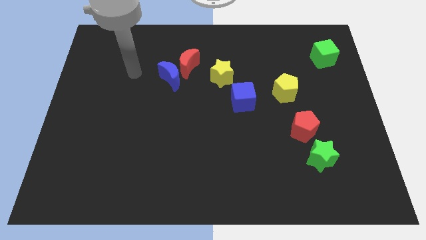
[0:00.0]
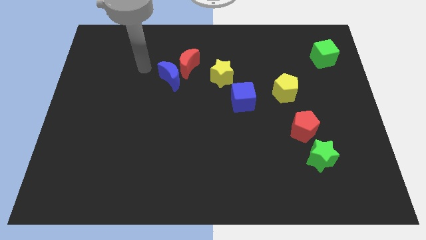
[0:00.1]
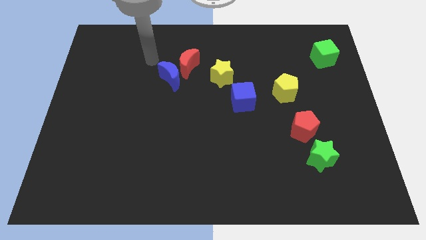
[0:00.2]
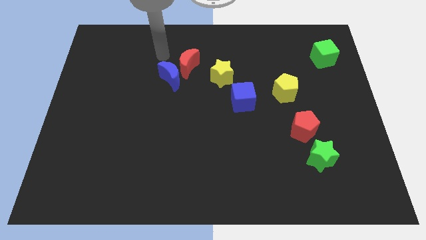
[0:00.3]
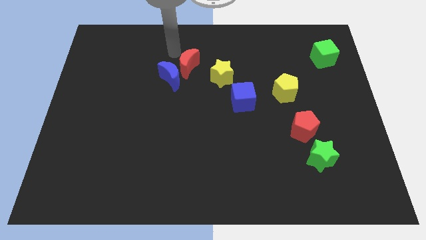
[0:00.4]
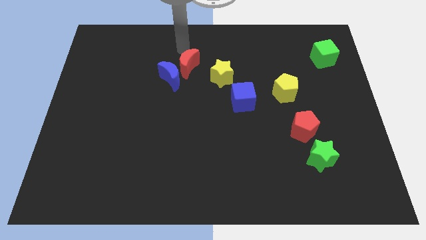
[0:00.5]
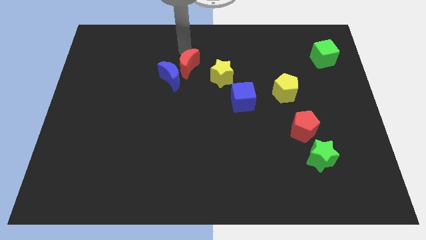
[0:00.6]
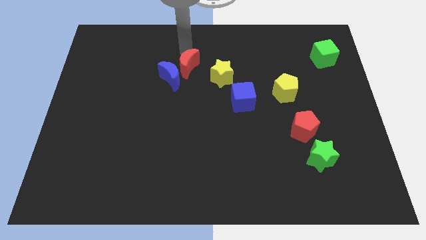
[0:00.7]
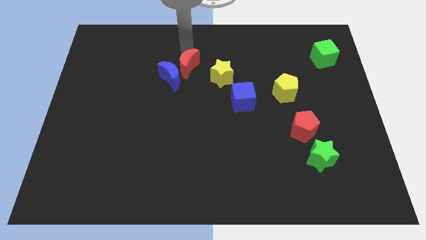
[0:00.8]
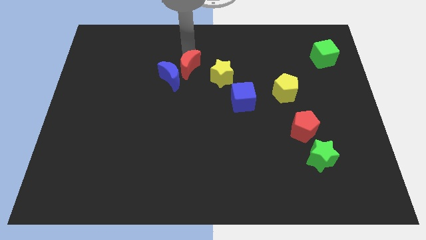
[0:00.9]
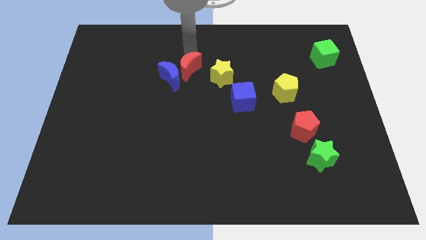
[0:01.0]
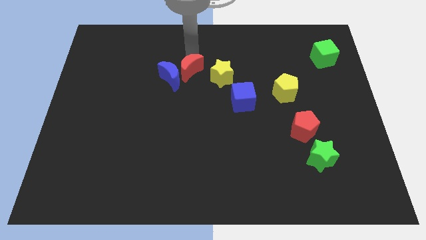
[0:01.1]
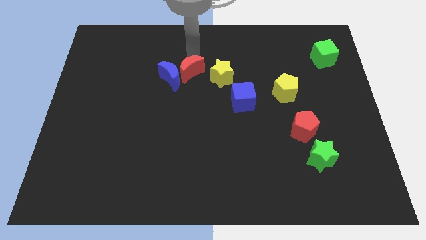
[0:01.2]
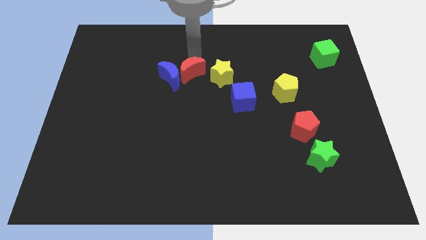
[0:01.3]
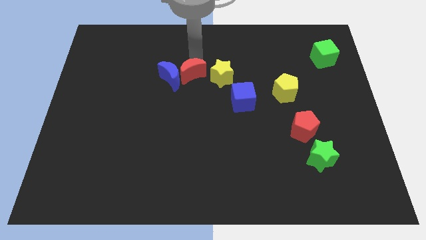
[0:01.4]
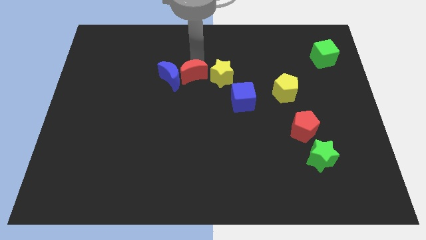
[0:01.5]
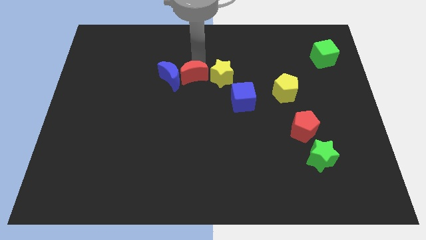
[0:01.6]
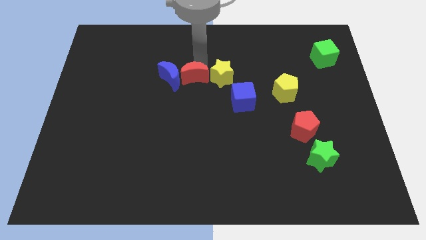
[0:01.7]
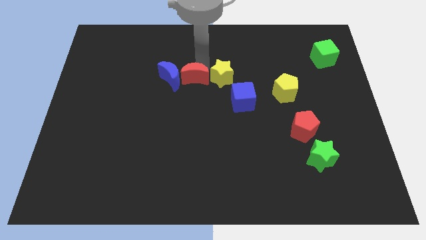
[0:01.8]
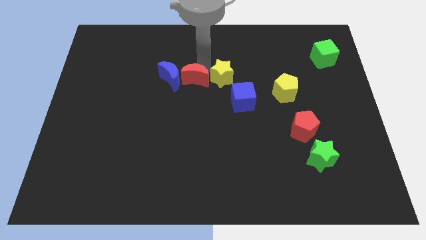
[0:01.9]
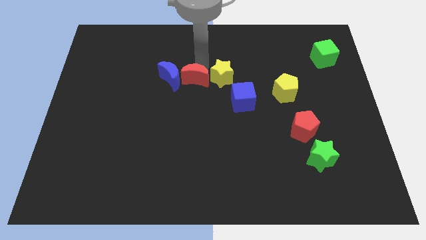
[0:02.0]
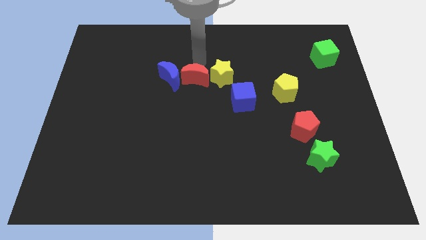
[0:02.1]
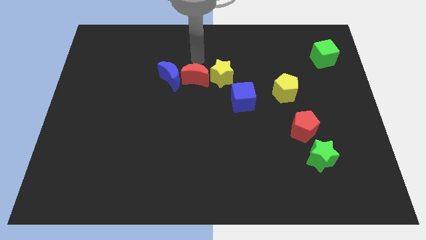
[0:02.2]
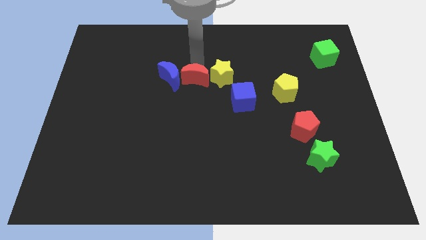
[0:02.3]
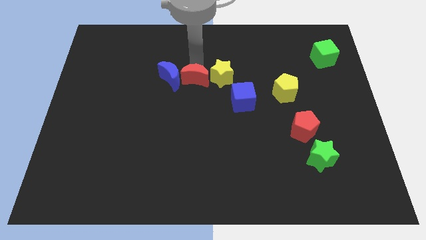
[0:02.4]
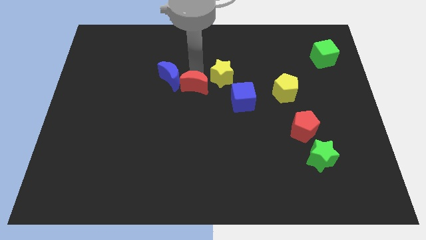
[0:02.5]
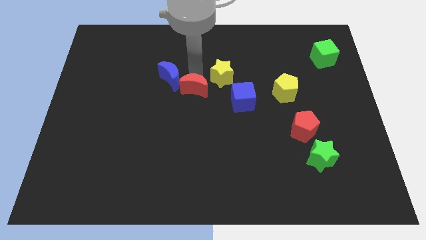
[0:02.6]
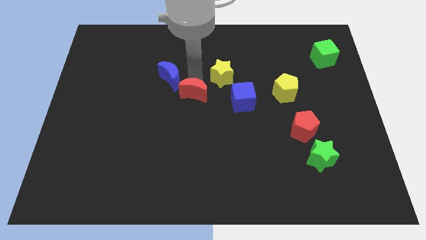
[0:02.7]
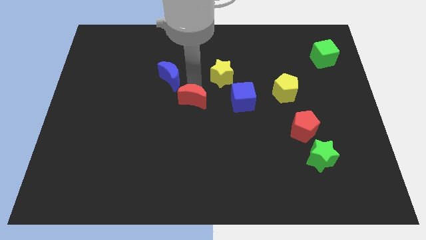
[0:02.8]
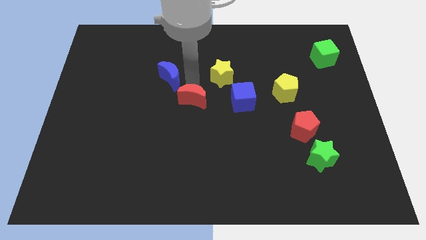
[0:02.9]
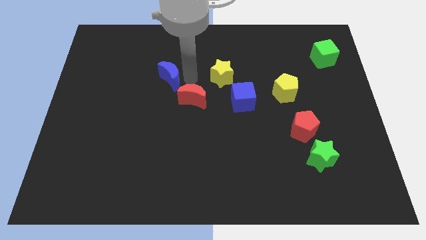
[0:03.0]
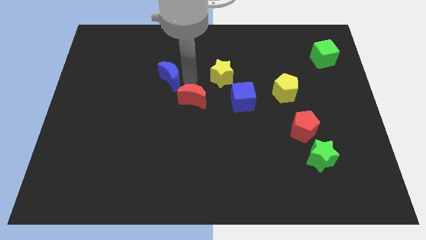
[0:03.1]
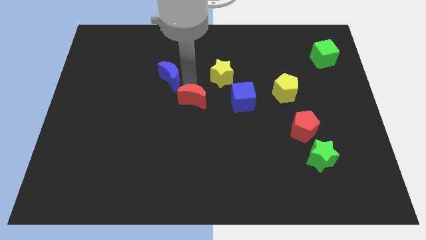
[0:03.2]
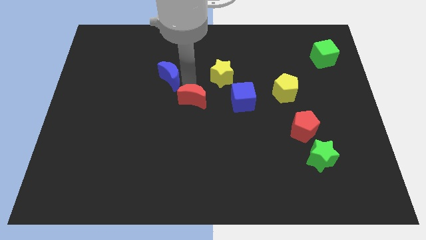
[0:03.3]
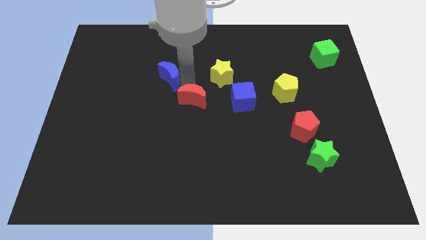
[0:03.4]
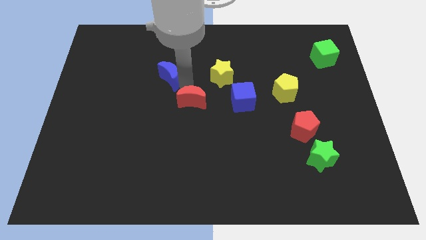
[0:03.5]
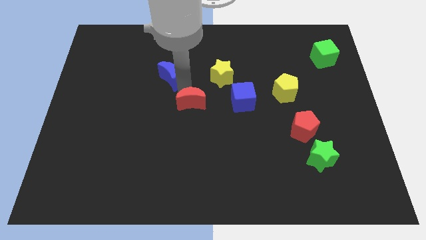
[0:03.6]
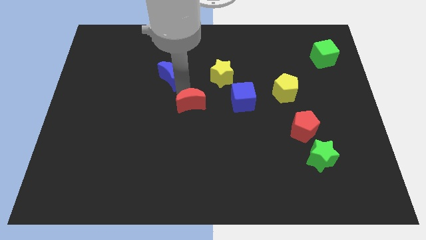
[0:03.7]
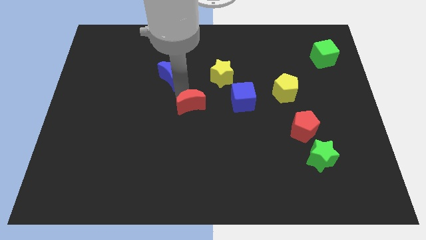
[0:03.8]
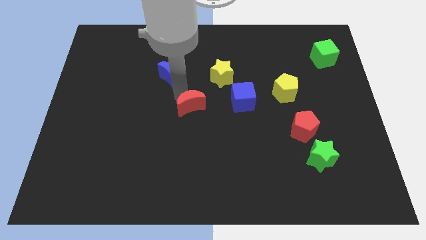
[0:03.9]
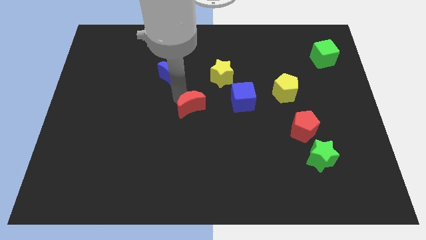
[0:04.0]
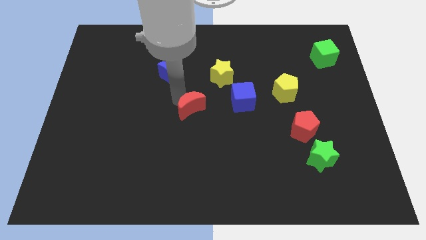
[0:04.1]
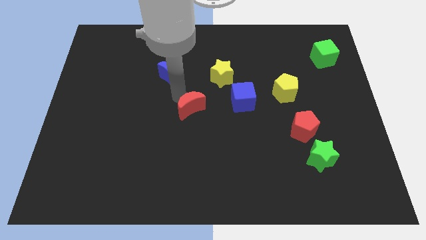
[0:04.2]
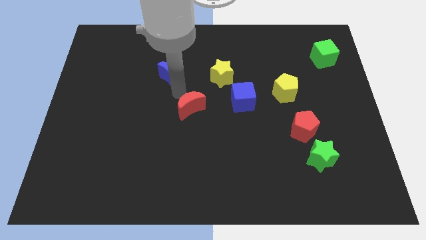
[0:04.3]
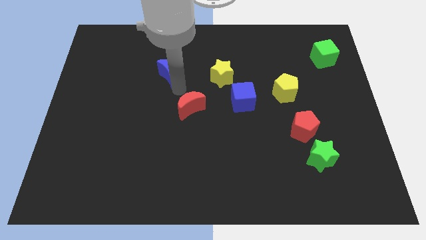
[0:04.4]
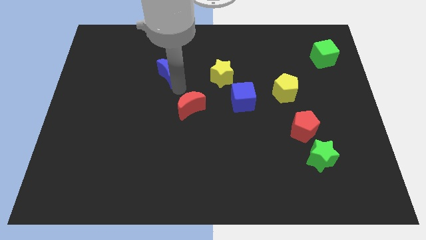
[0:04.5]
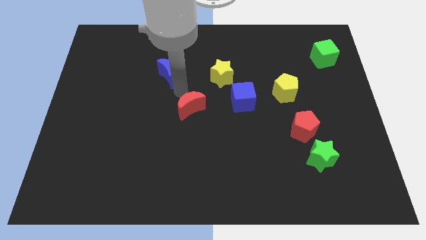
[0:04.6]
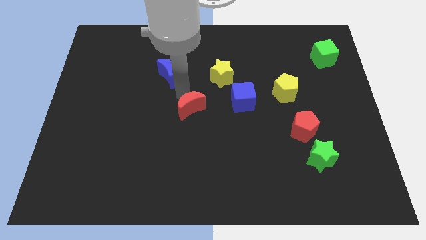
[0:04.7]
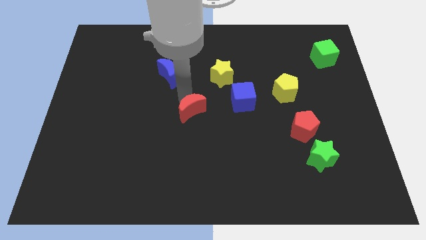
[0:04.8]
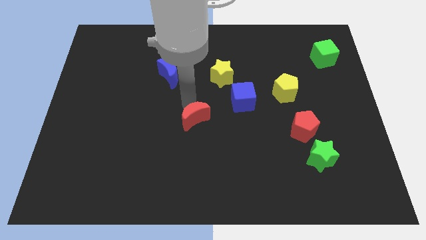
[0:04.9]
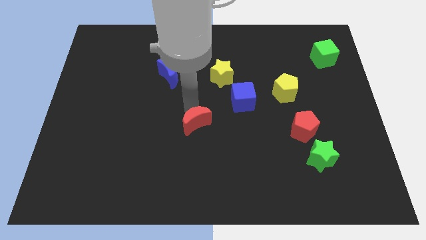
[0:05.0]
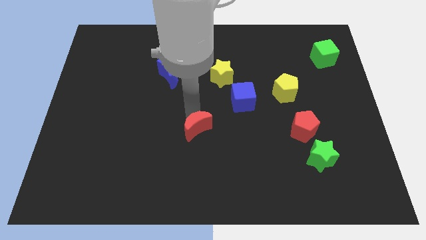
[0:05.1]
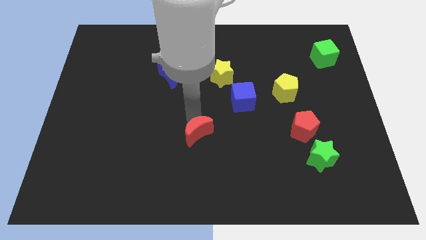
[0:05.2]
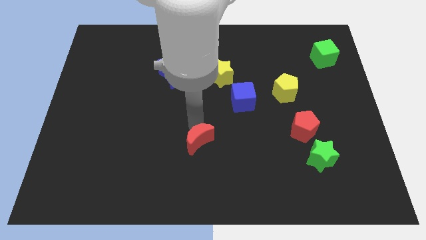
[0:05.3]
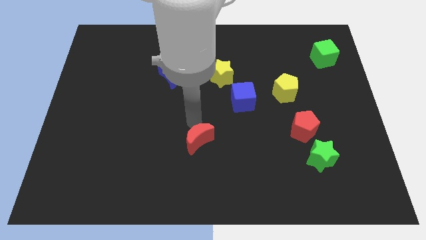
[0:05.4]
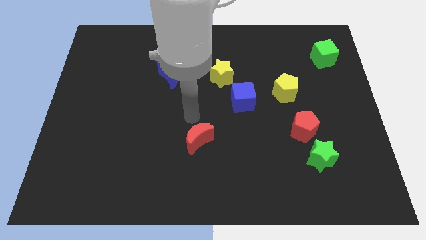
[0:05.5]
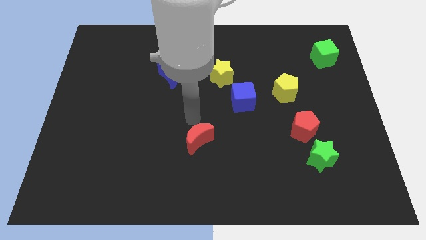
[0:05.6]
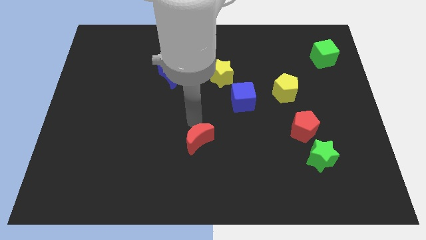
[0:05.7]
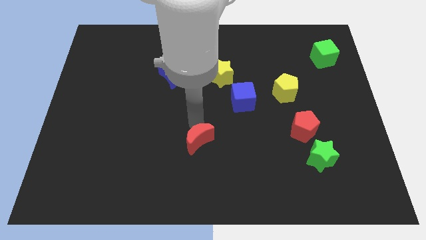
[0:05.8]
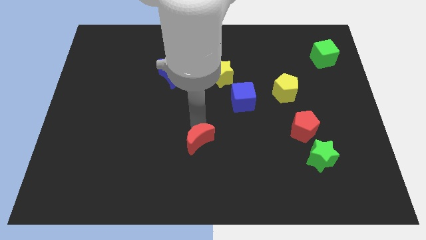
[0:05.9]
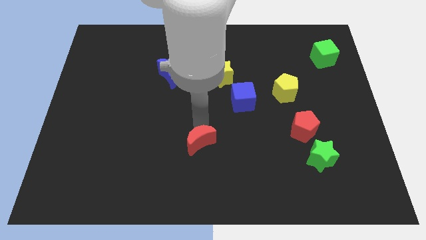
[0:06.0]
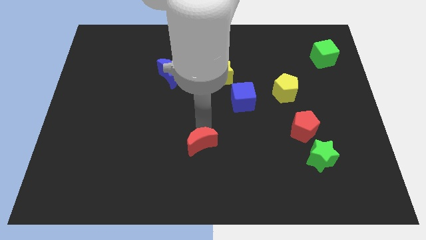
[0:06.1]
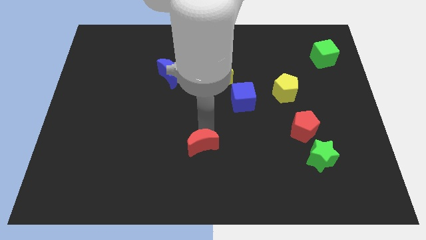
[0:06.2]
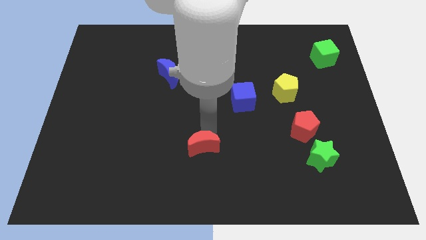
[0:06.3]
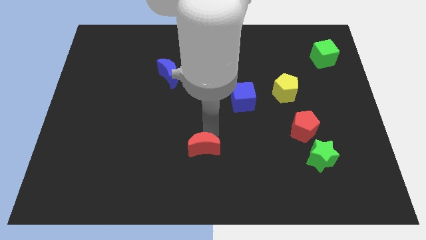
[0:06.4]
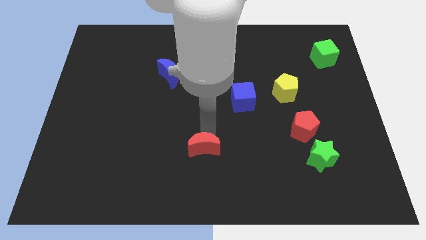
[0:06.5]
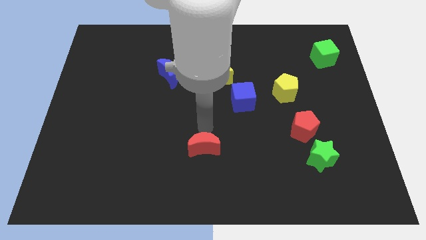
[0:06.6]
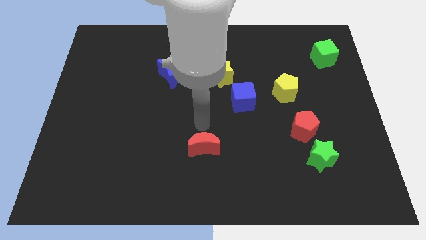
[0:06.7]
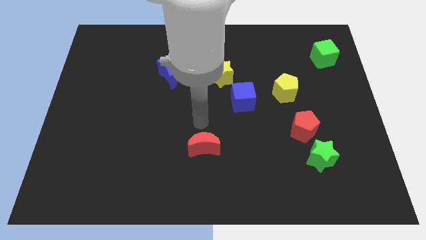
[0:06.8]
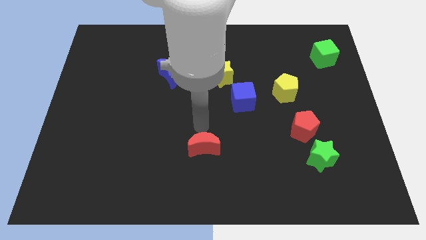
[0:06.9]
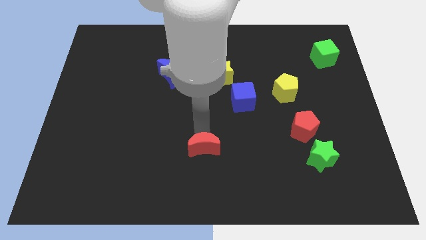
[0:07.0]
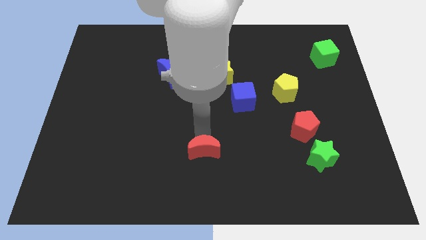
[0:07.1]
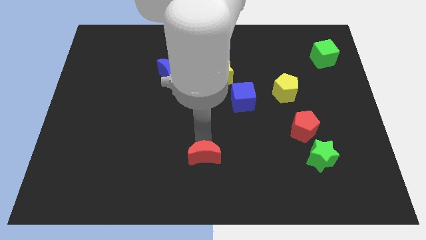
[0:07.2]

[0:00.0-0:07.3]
put the red moon to the bottom side
